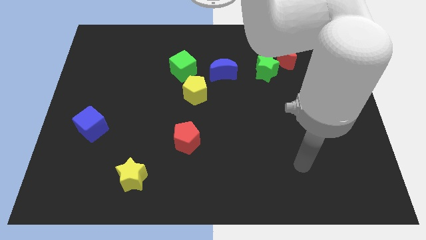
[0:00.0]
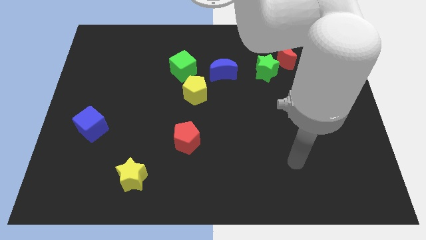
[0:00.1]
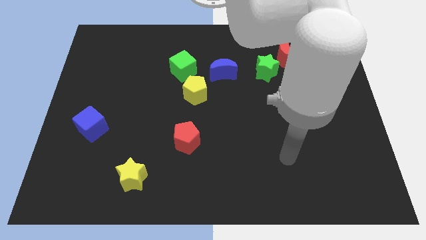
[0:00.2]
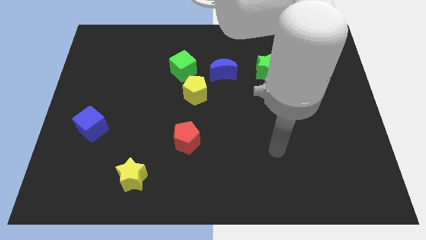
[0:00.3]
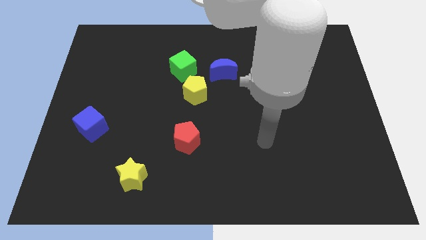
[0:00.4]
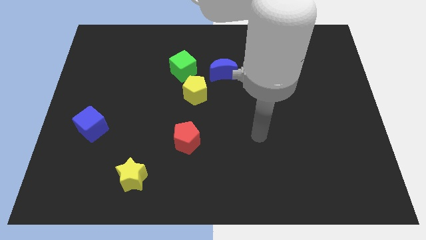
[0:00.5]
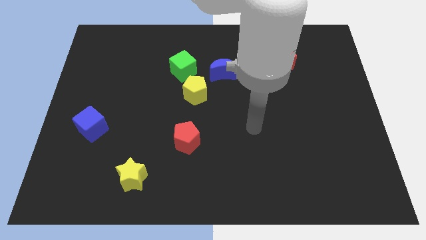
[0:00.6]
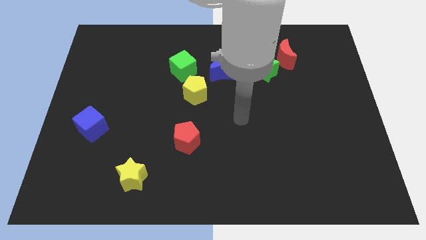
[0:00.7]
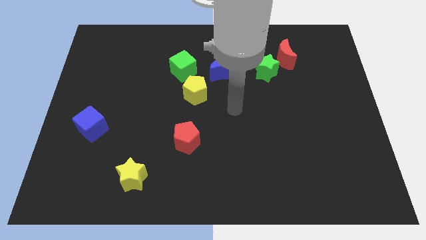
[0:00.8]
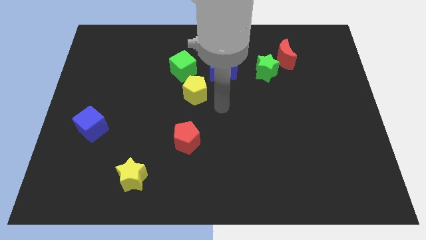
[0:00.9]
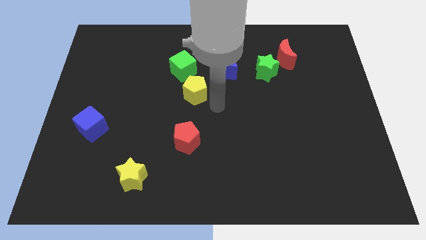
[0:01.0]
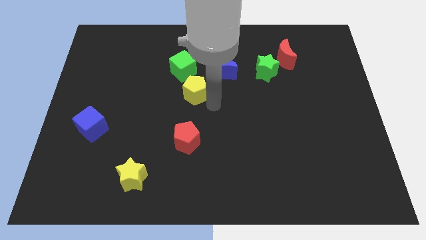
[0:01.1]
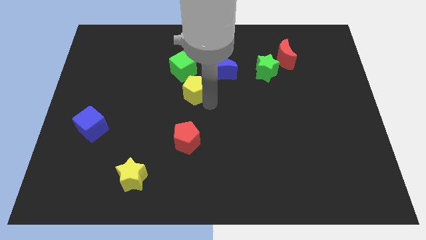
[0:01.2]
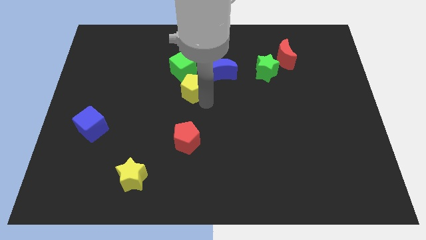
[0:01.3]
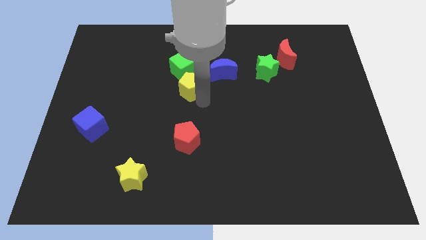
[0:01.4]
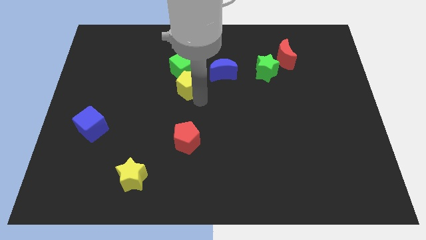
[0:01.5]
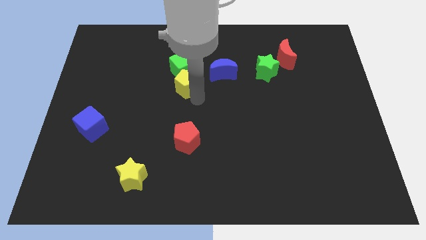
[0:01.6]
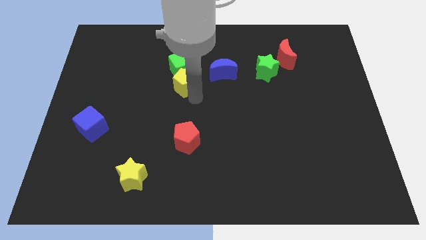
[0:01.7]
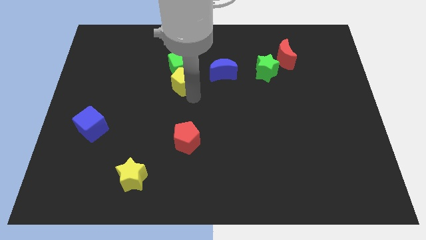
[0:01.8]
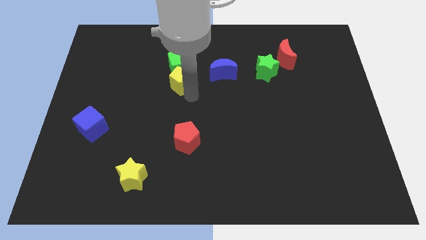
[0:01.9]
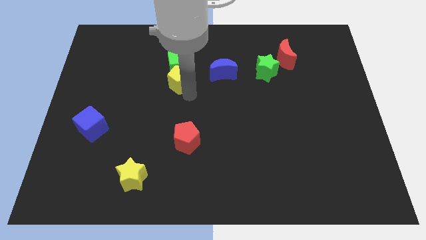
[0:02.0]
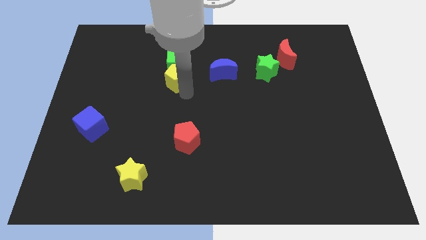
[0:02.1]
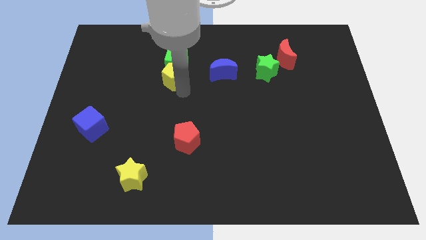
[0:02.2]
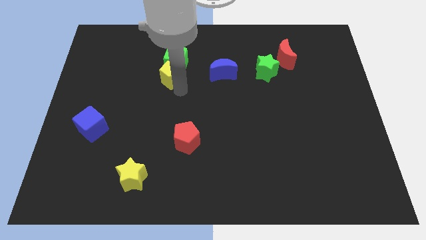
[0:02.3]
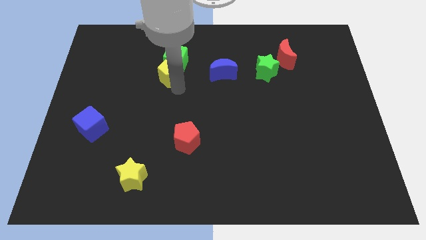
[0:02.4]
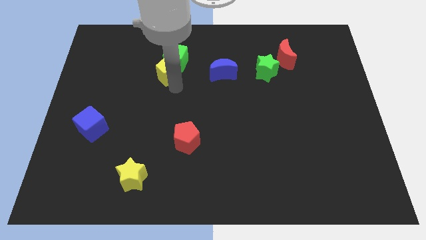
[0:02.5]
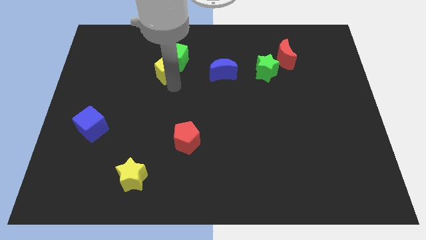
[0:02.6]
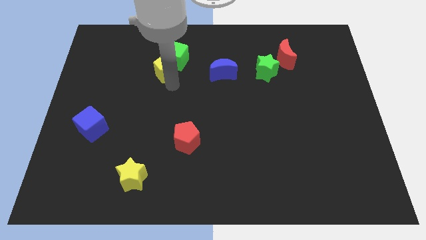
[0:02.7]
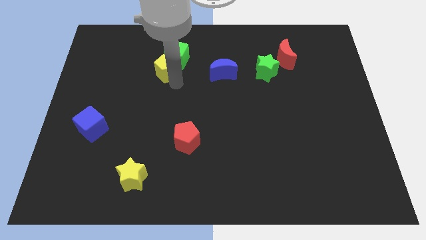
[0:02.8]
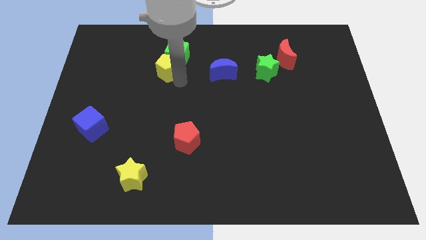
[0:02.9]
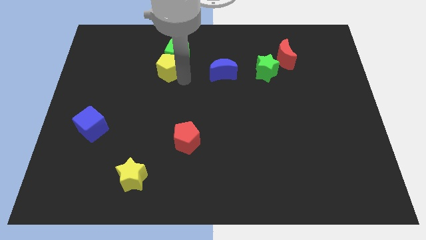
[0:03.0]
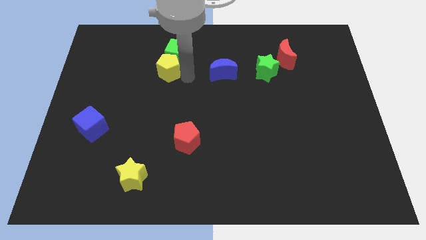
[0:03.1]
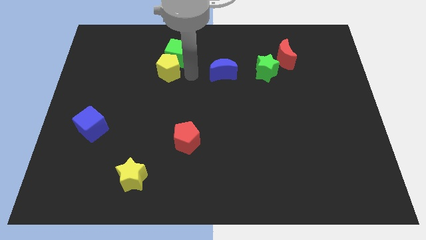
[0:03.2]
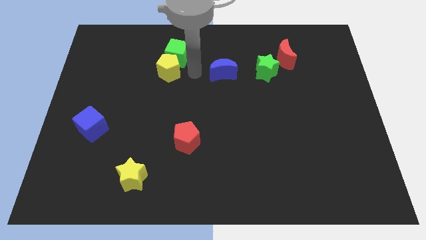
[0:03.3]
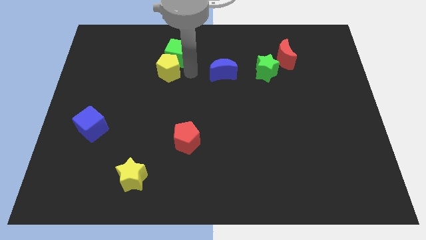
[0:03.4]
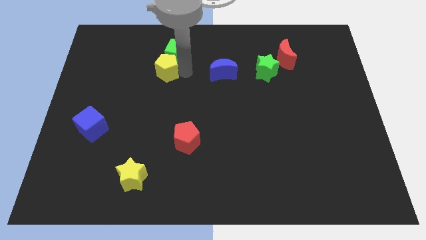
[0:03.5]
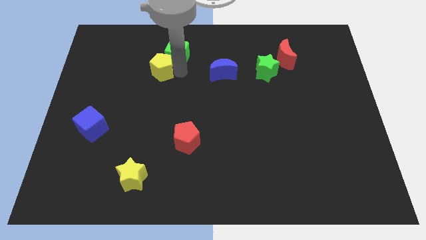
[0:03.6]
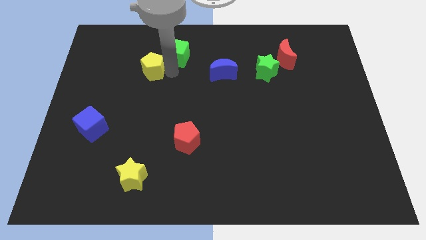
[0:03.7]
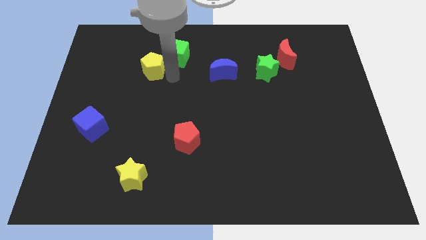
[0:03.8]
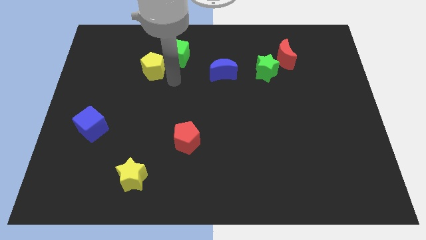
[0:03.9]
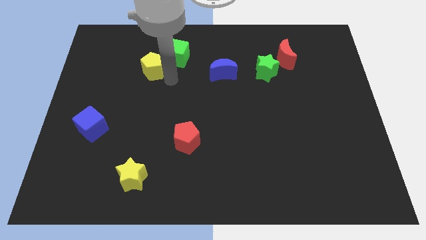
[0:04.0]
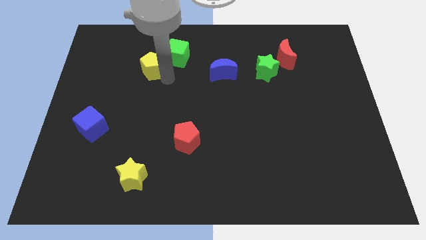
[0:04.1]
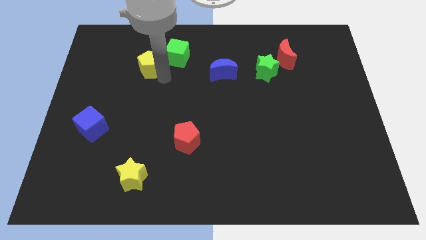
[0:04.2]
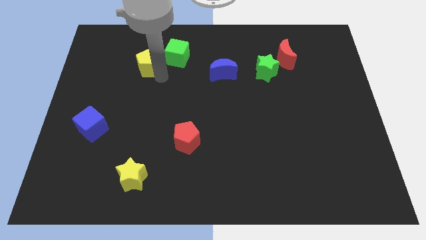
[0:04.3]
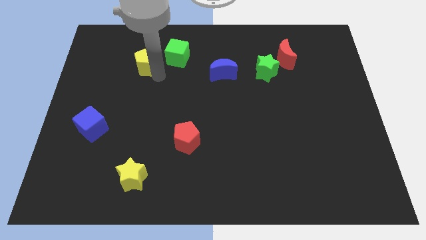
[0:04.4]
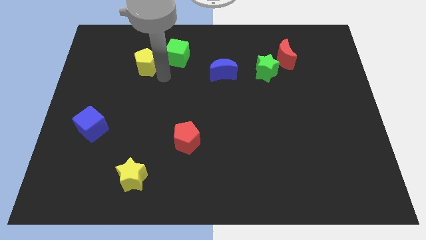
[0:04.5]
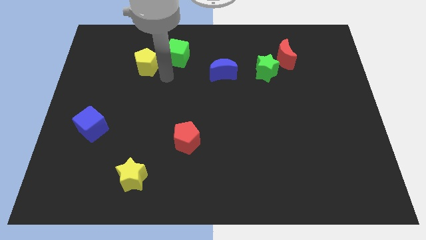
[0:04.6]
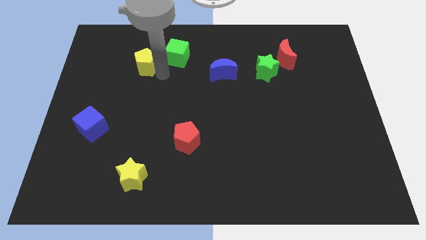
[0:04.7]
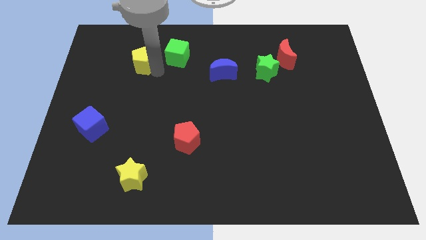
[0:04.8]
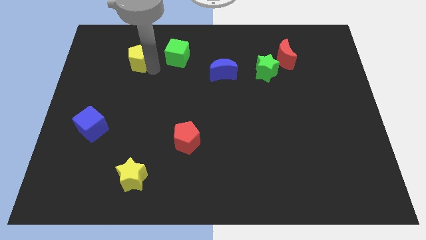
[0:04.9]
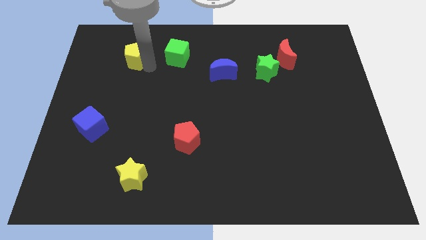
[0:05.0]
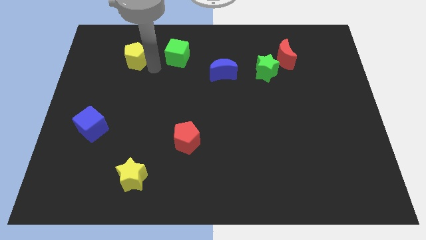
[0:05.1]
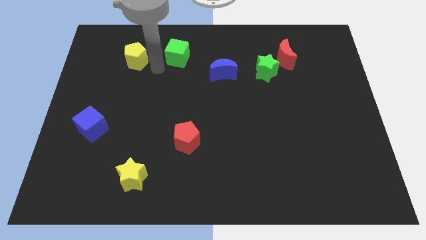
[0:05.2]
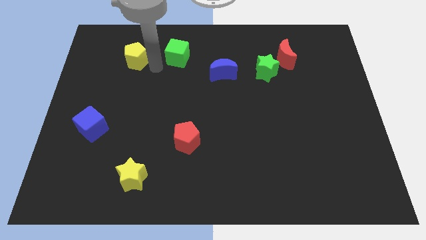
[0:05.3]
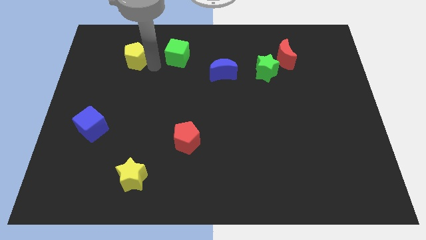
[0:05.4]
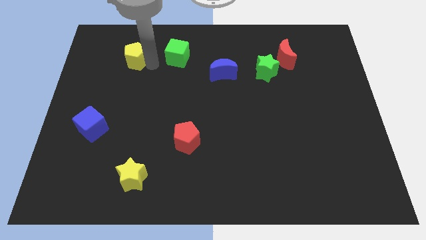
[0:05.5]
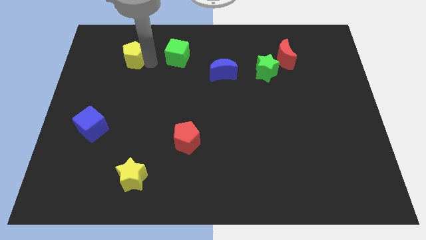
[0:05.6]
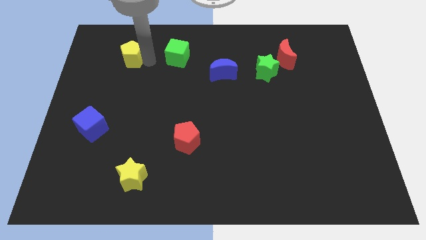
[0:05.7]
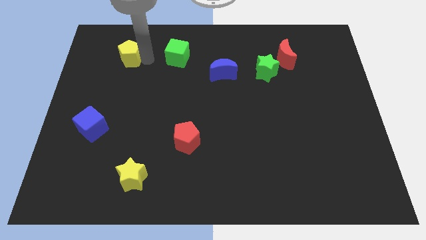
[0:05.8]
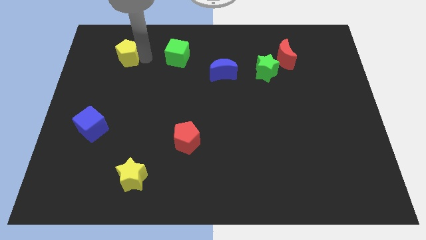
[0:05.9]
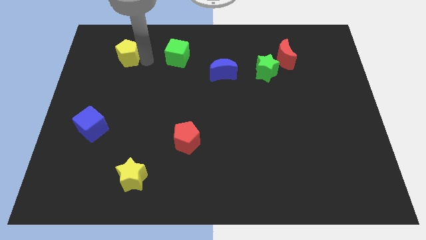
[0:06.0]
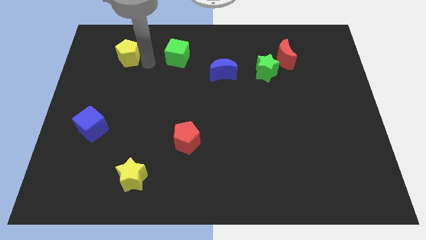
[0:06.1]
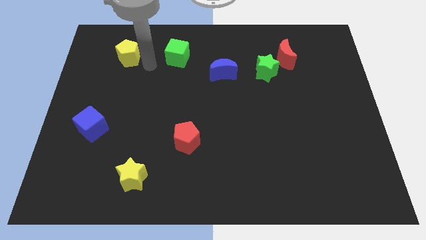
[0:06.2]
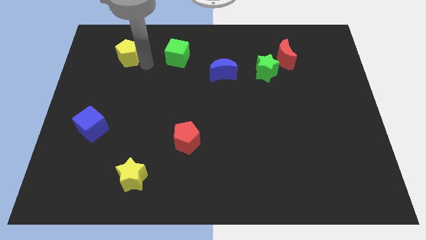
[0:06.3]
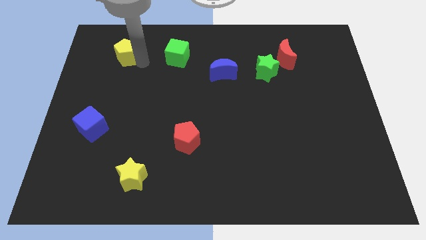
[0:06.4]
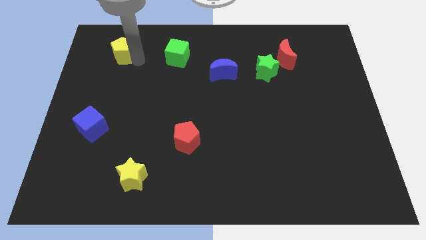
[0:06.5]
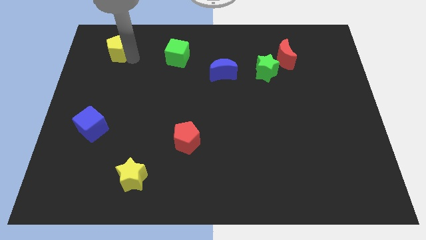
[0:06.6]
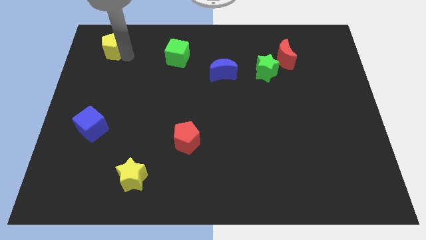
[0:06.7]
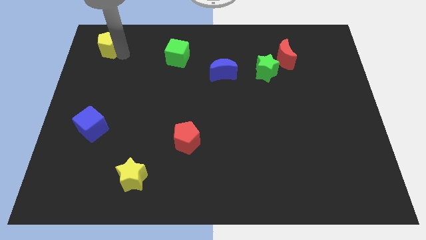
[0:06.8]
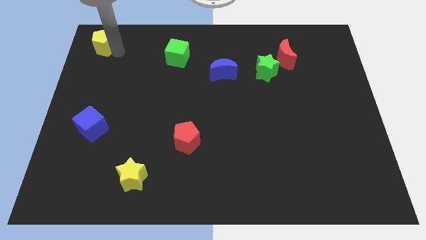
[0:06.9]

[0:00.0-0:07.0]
put the yellow pentagon to the top left of the board
